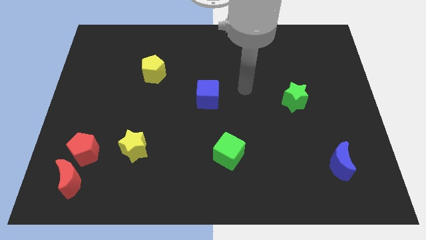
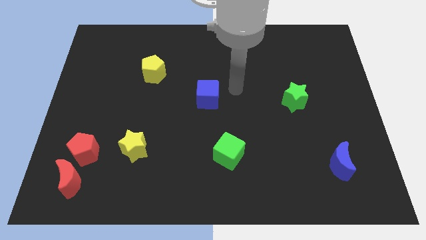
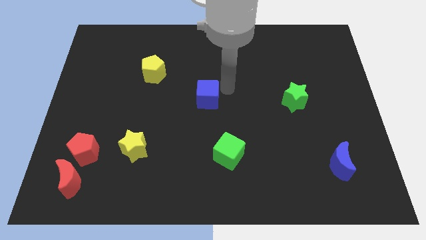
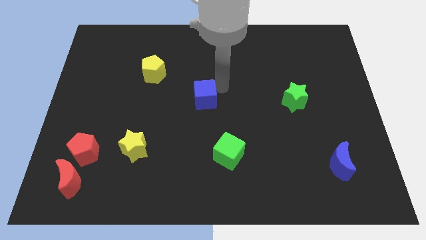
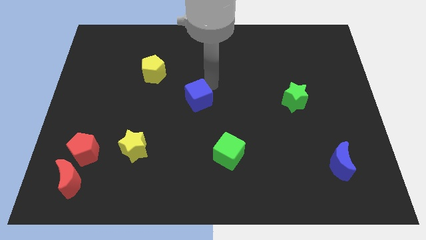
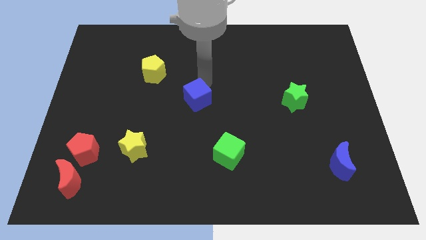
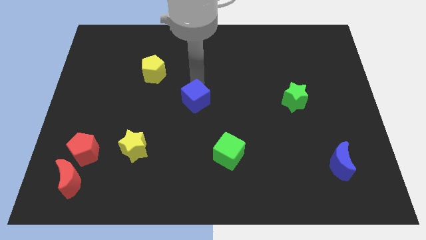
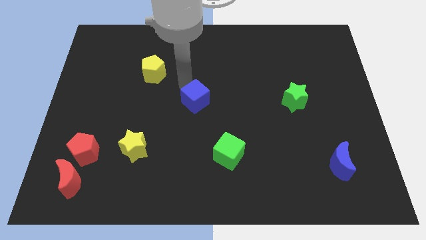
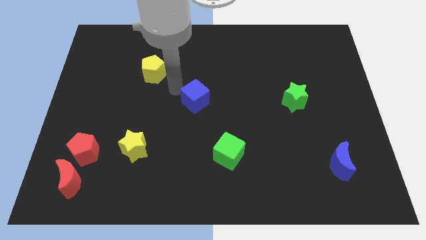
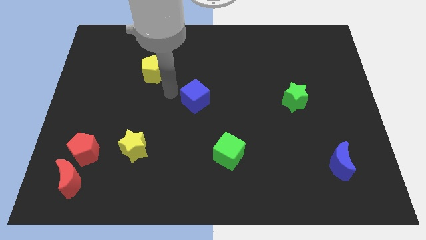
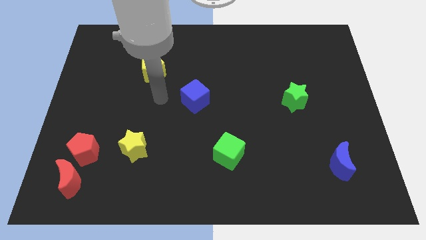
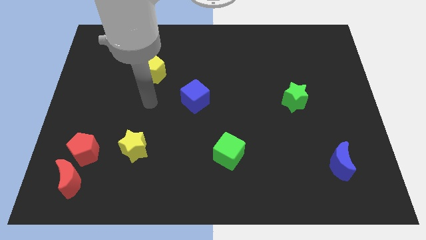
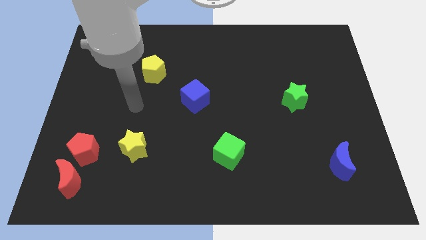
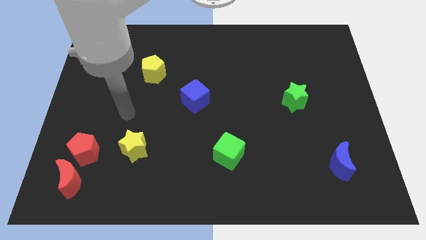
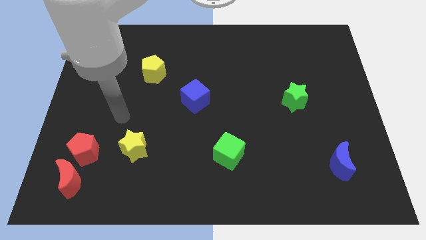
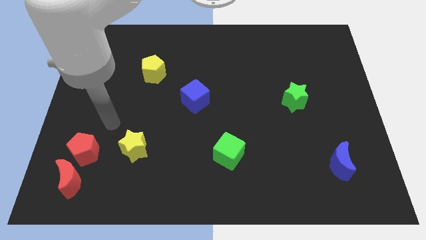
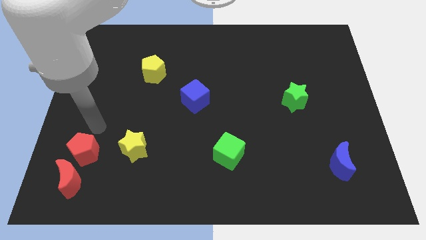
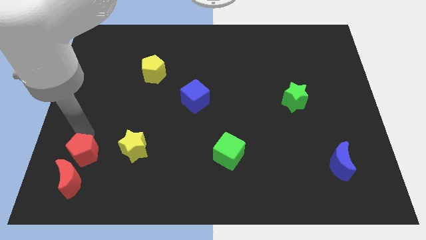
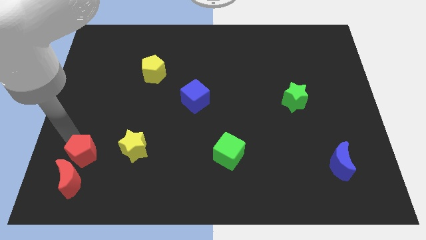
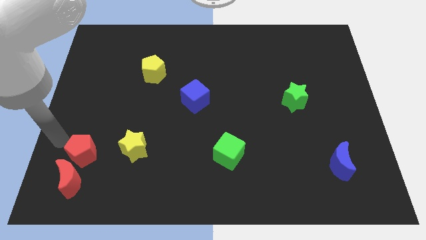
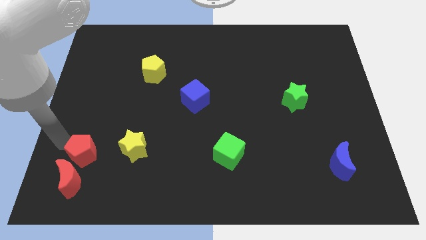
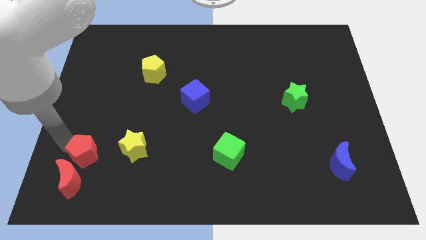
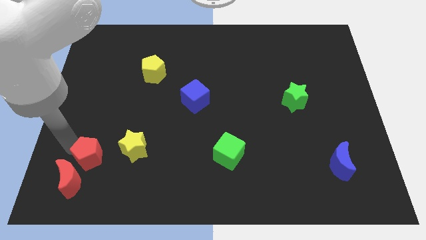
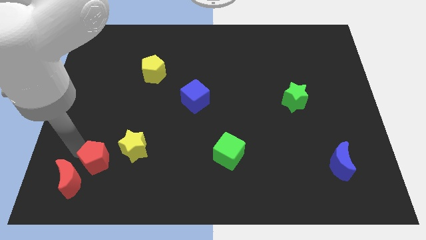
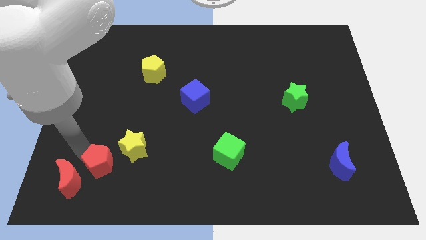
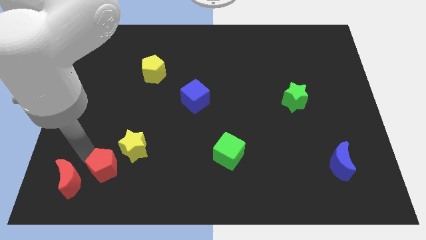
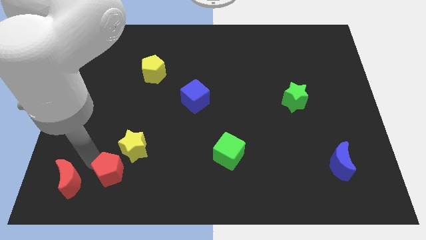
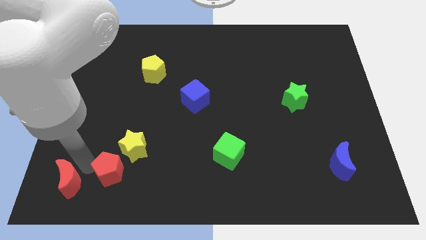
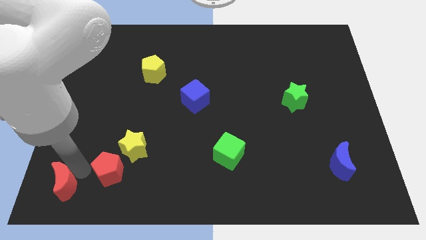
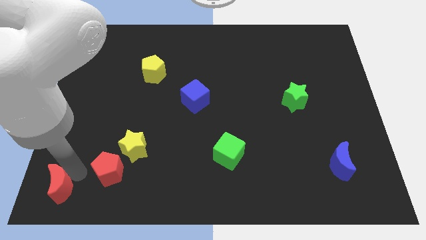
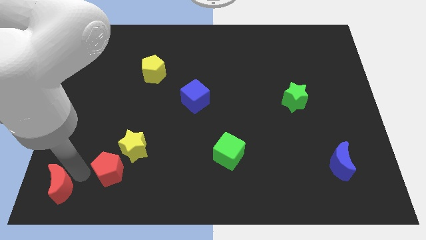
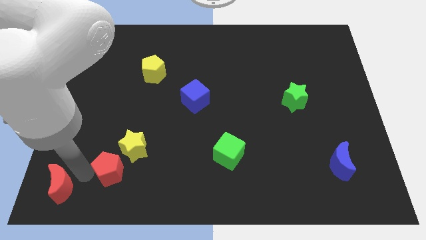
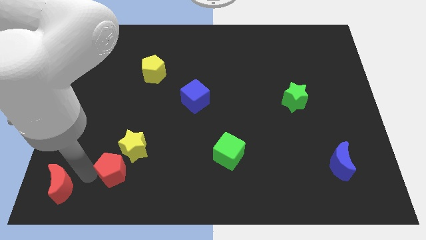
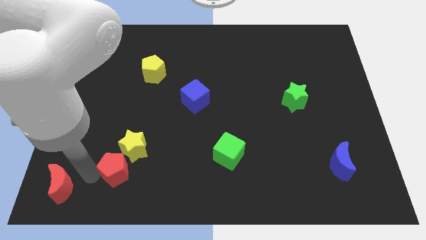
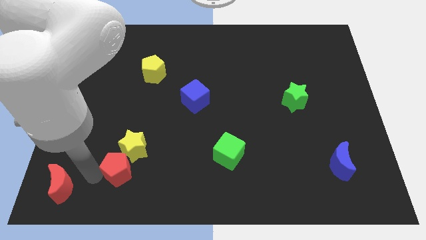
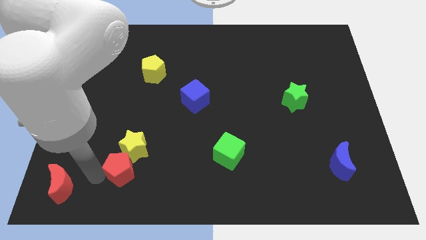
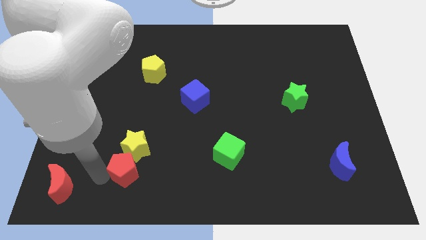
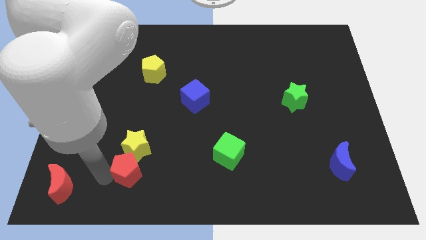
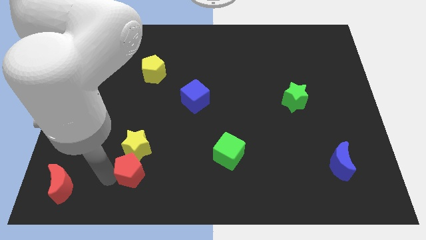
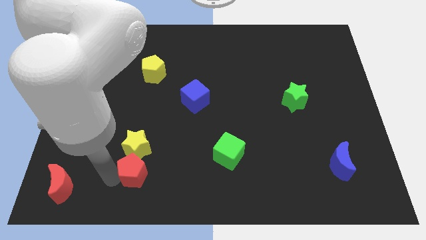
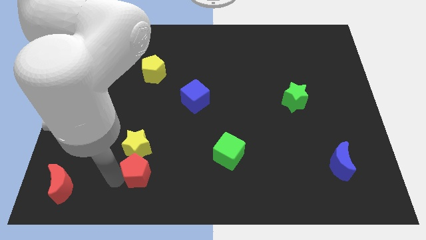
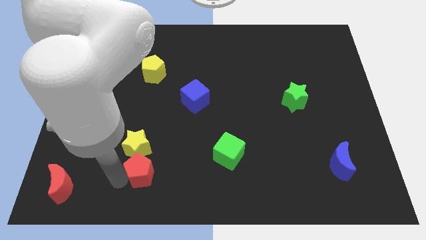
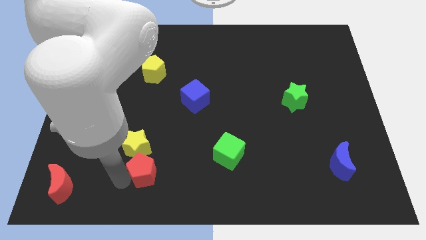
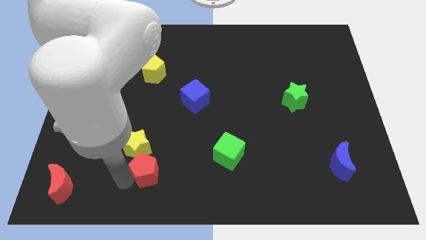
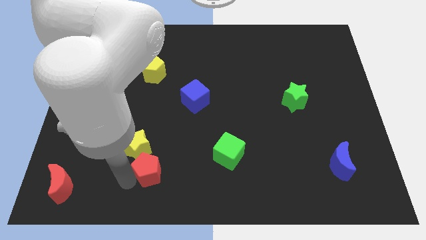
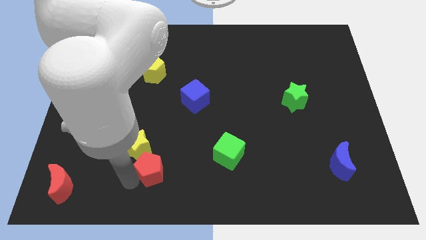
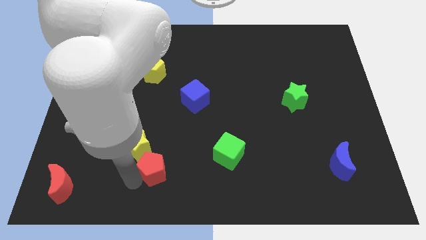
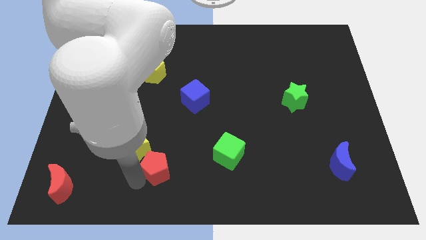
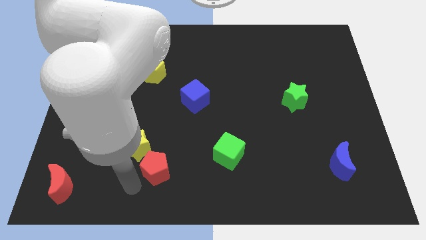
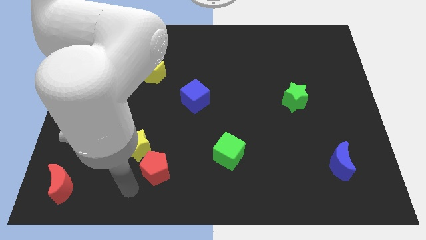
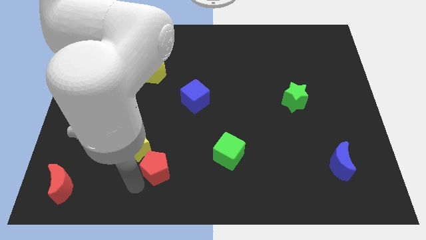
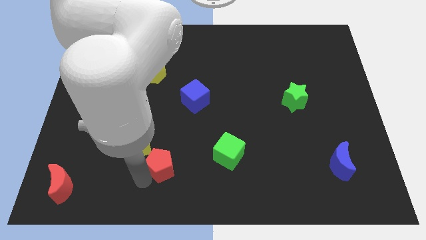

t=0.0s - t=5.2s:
slide the red pentagon to the left of the green cube

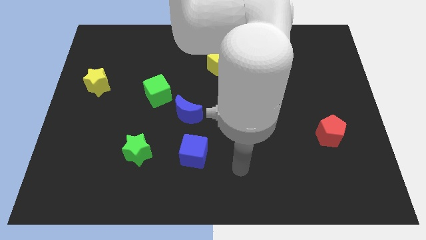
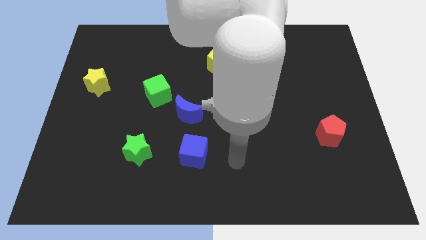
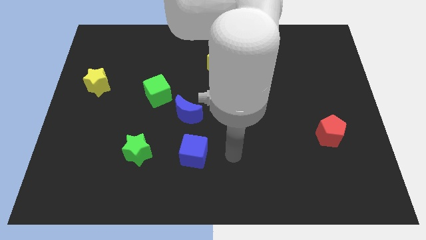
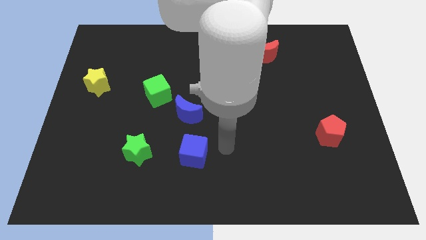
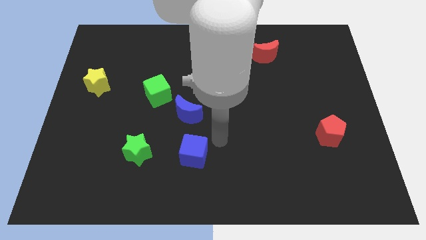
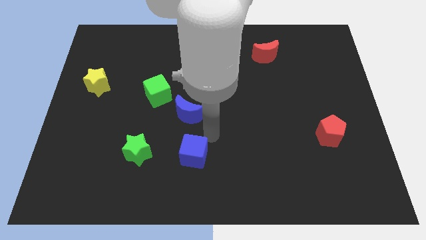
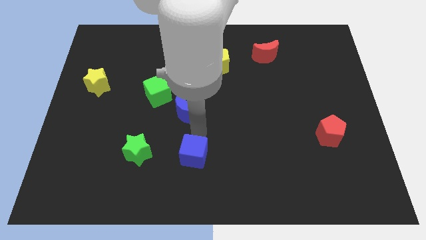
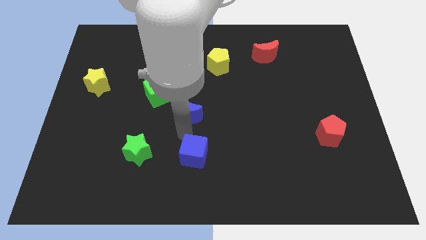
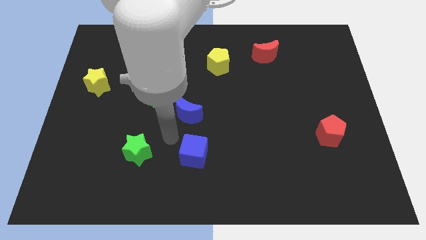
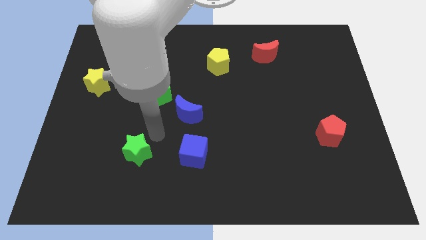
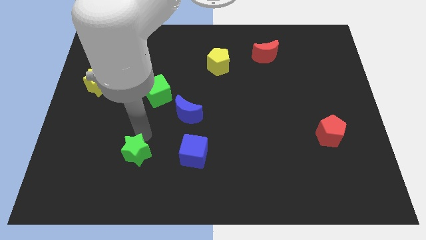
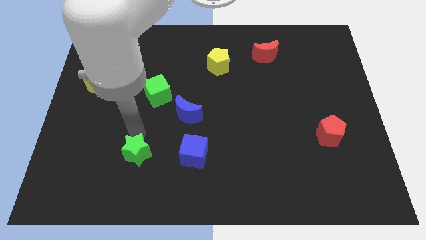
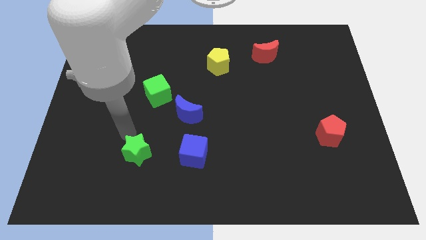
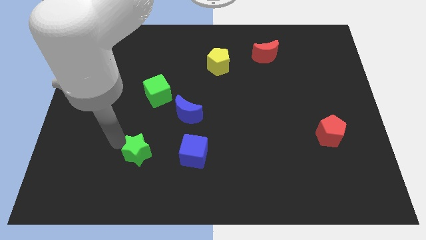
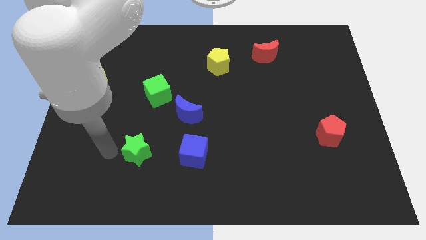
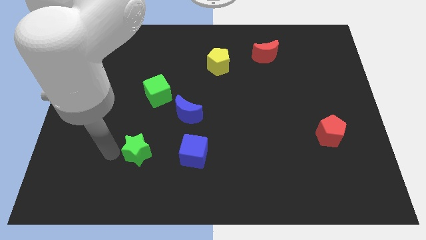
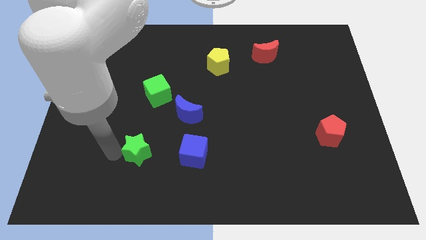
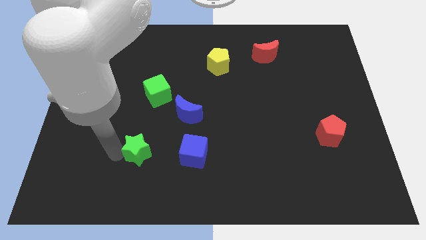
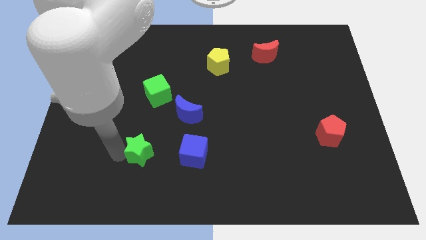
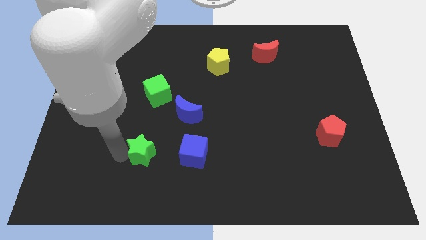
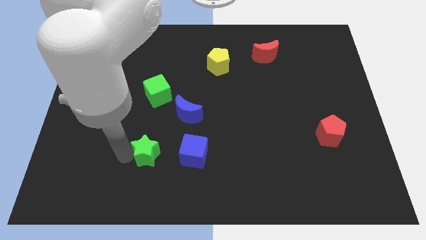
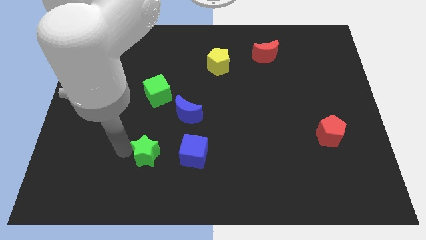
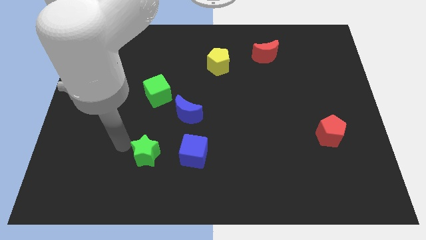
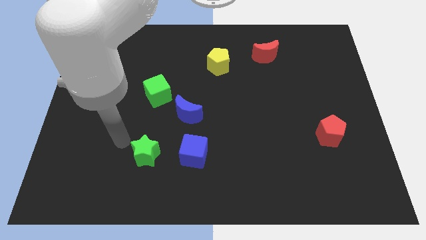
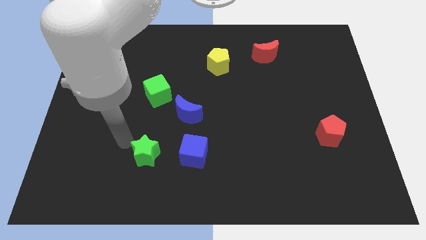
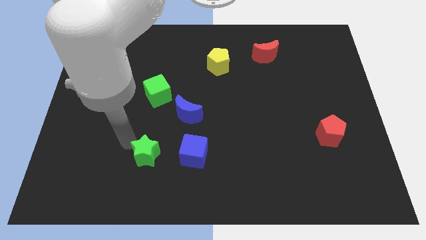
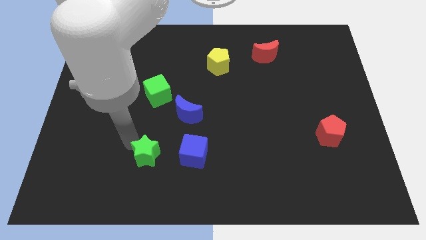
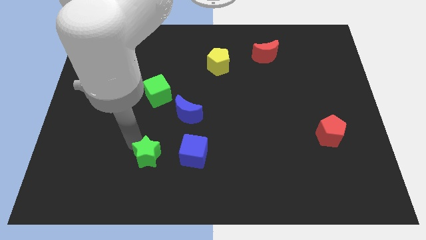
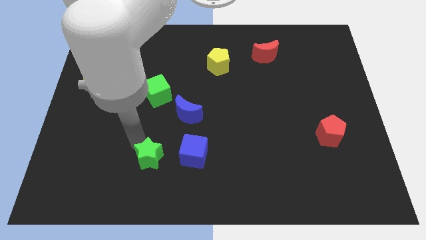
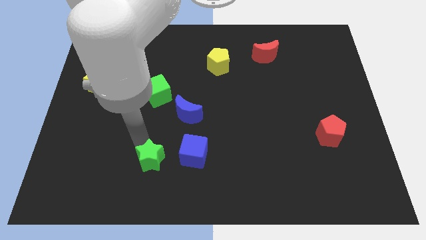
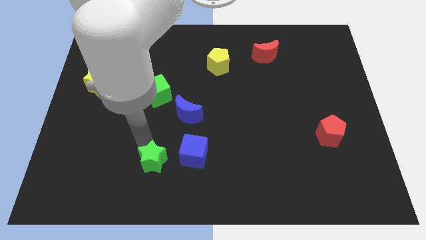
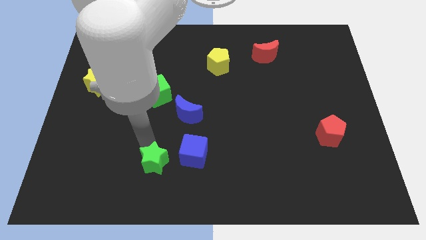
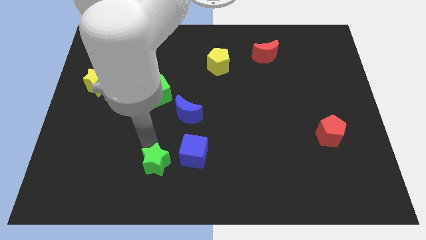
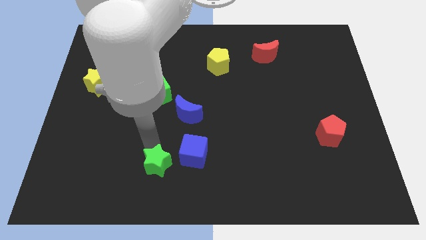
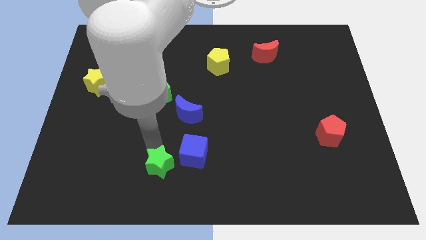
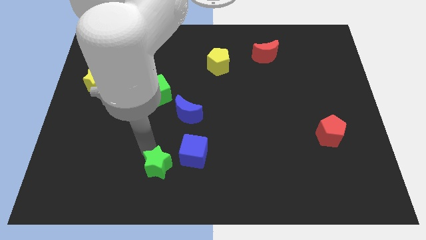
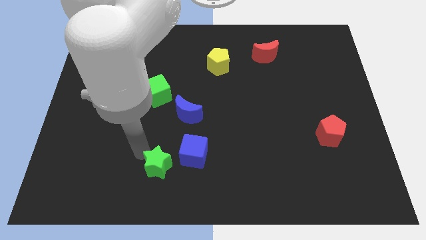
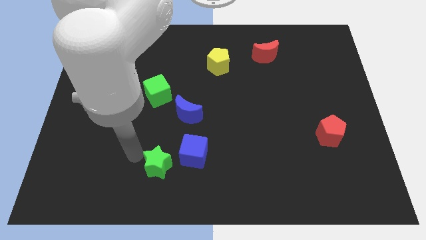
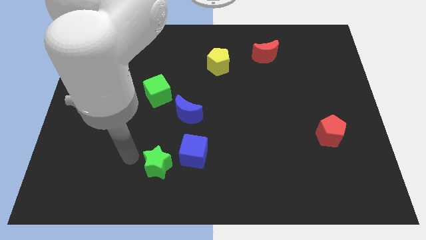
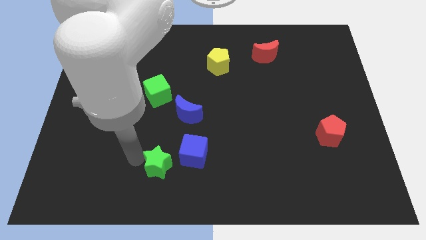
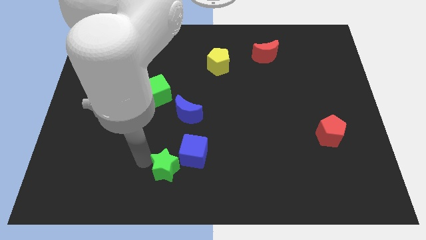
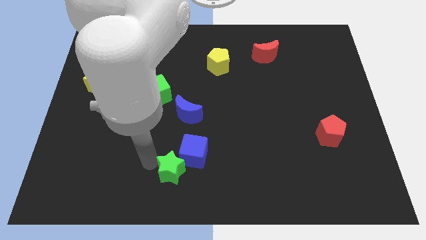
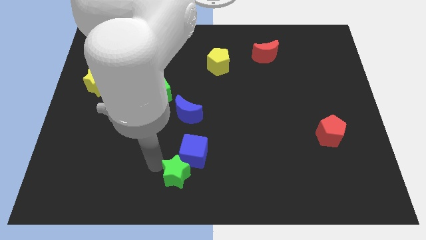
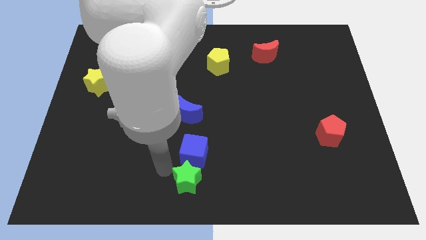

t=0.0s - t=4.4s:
push the green star to the bottom right of the blue cube
